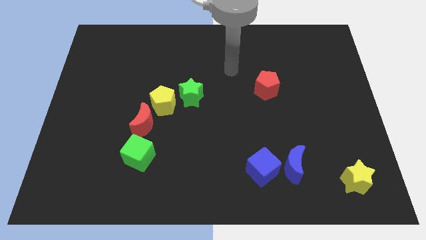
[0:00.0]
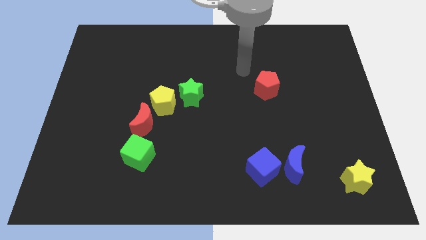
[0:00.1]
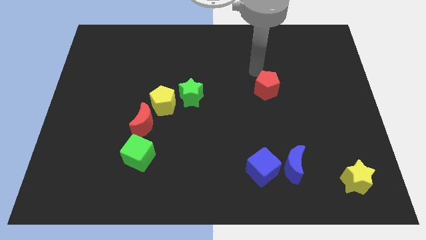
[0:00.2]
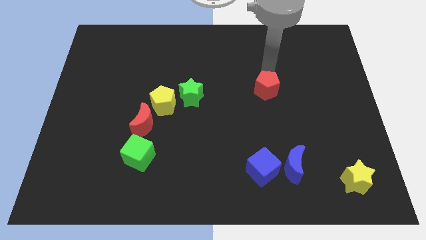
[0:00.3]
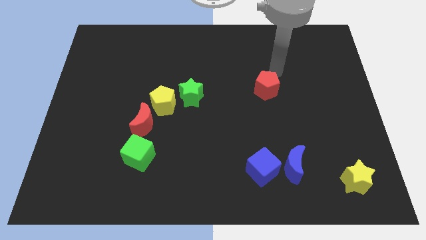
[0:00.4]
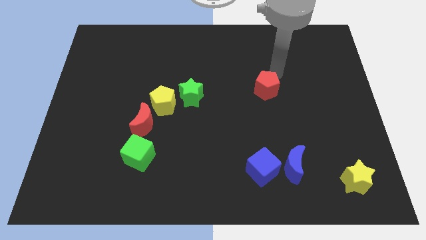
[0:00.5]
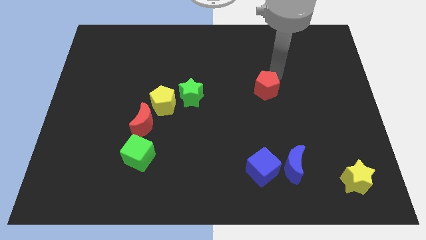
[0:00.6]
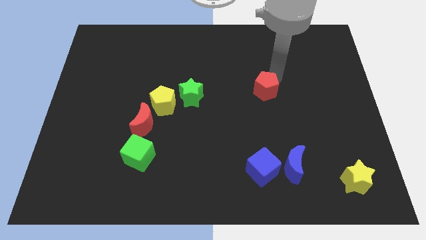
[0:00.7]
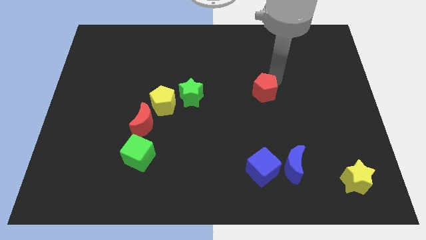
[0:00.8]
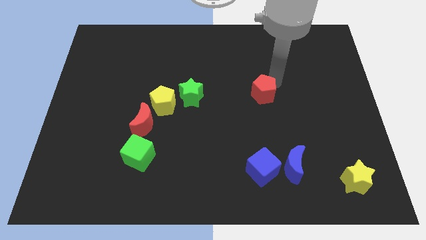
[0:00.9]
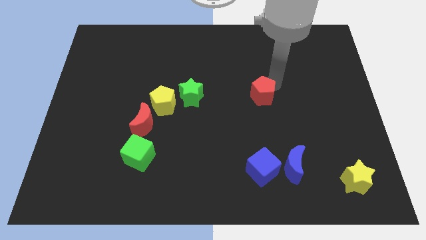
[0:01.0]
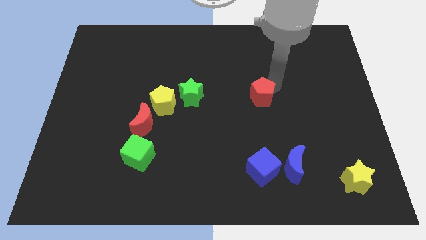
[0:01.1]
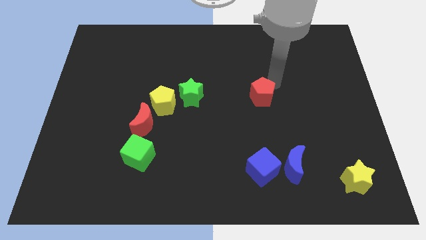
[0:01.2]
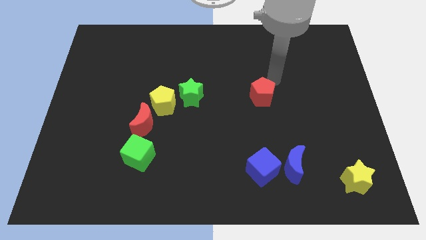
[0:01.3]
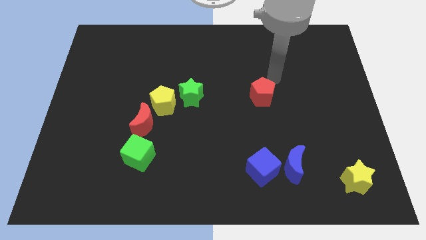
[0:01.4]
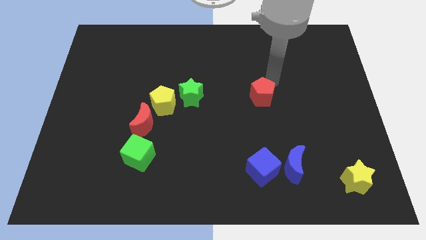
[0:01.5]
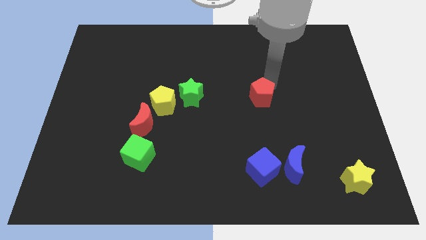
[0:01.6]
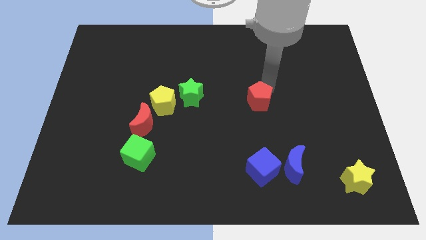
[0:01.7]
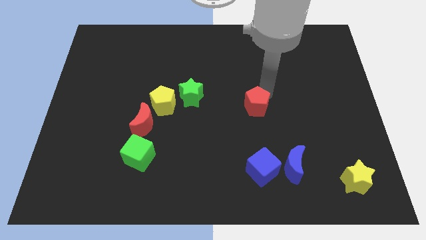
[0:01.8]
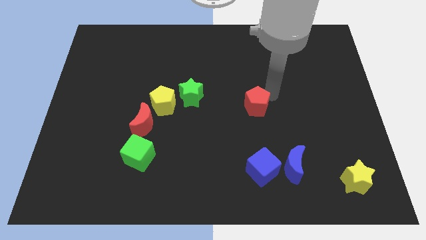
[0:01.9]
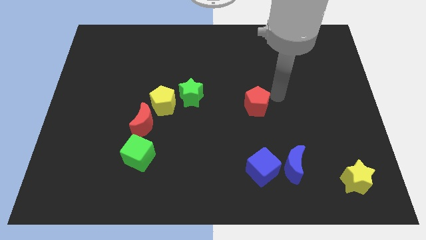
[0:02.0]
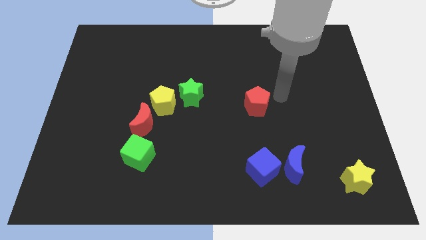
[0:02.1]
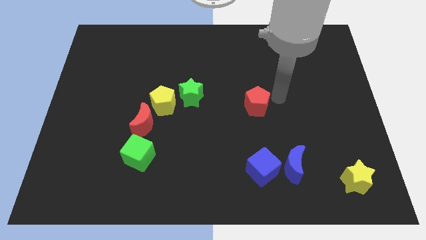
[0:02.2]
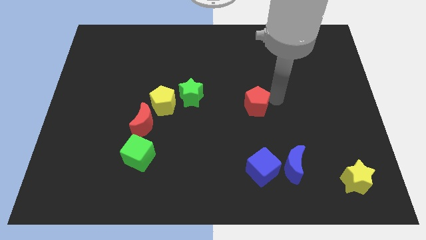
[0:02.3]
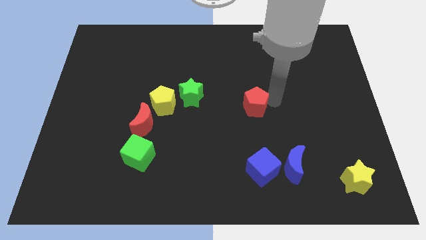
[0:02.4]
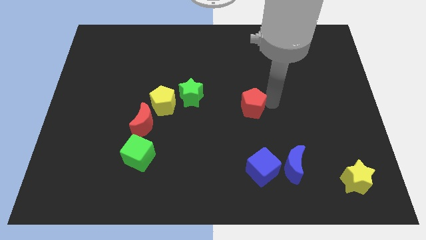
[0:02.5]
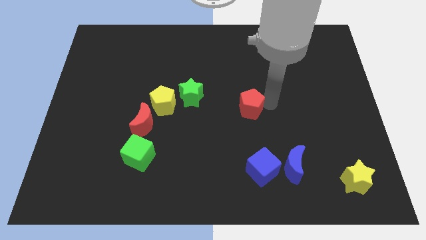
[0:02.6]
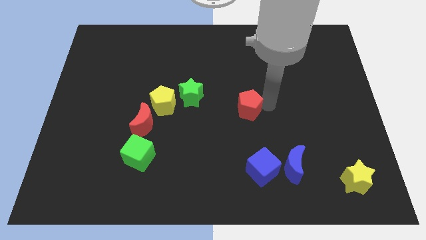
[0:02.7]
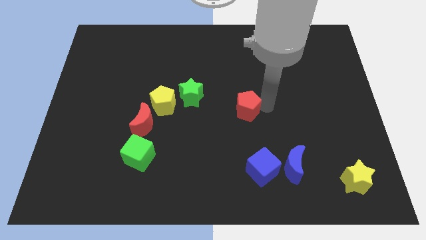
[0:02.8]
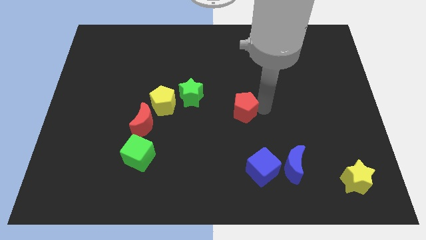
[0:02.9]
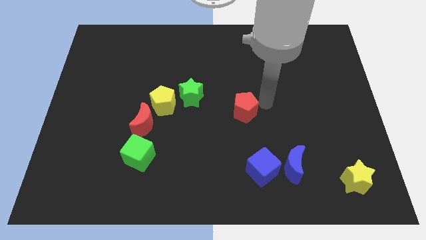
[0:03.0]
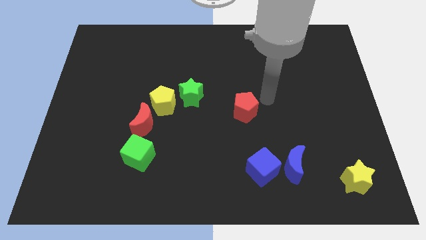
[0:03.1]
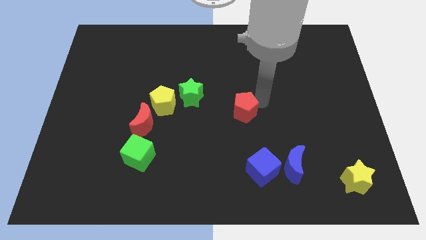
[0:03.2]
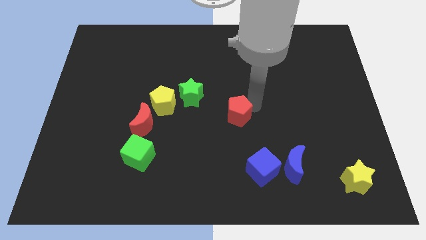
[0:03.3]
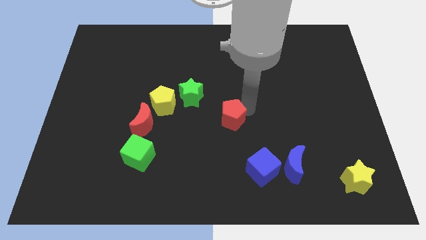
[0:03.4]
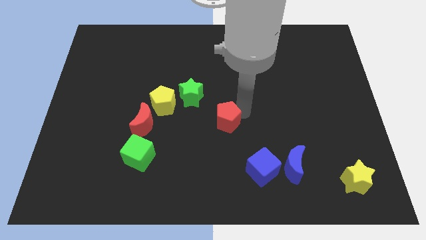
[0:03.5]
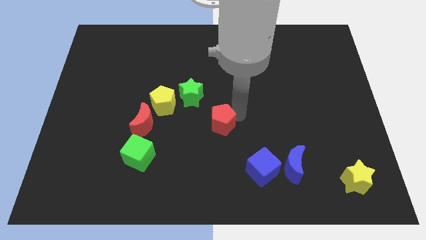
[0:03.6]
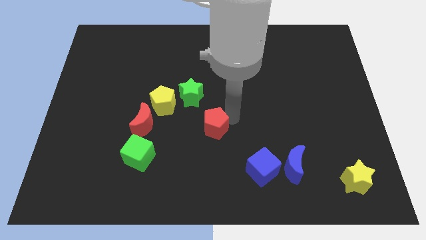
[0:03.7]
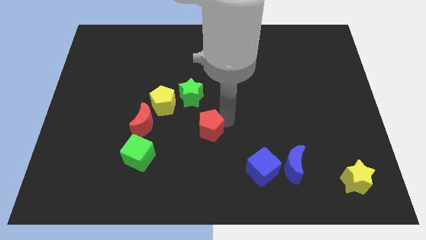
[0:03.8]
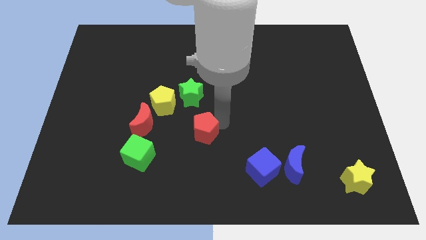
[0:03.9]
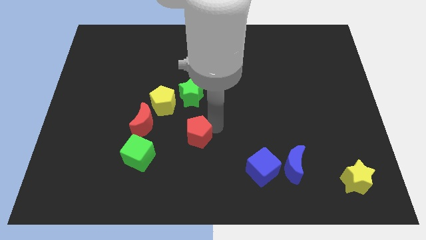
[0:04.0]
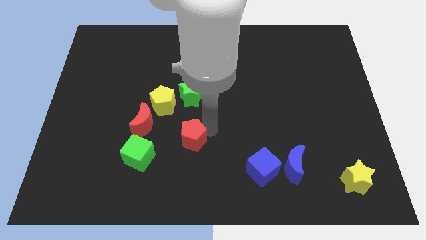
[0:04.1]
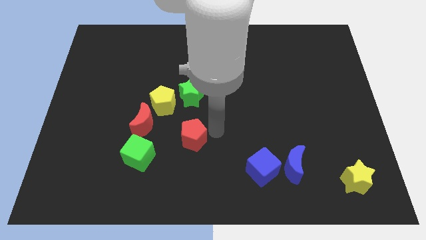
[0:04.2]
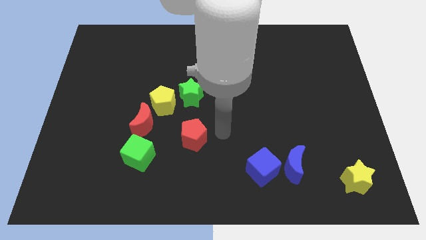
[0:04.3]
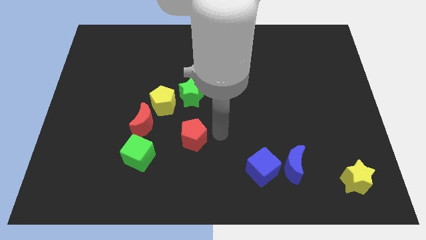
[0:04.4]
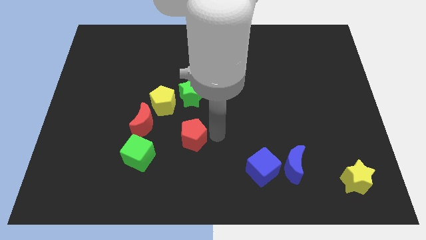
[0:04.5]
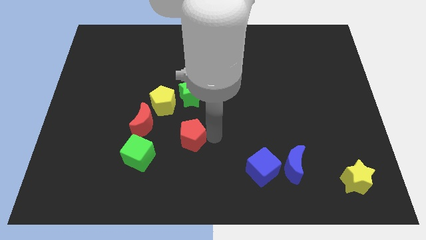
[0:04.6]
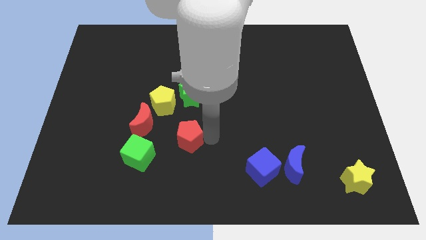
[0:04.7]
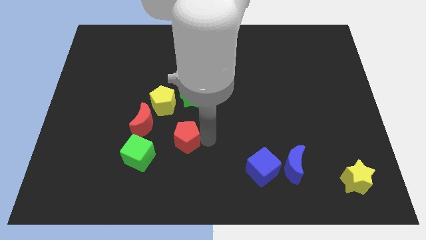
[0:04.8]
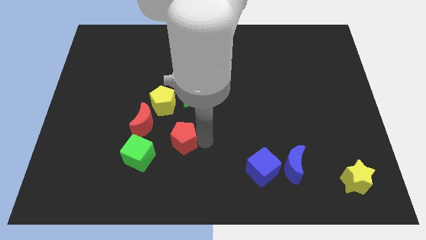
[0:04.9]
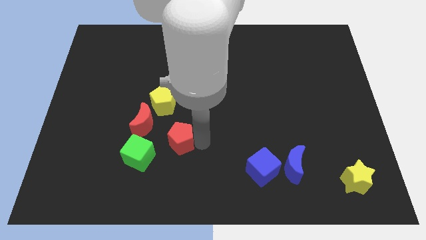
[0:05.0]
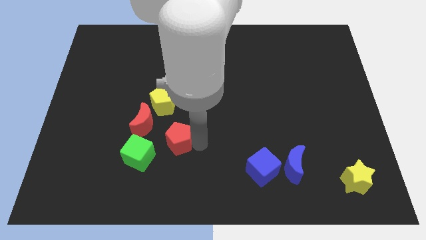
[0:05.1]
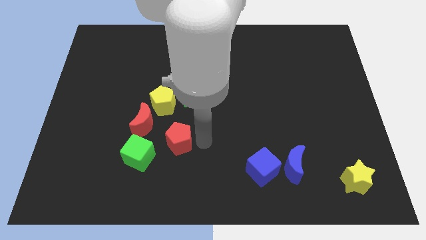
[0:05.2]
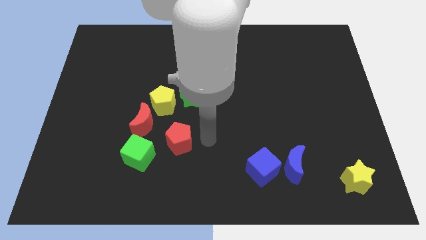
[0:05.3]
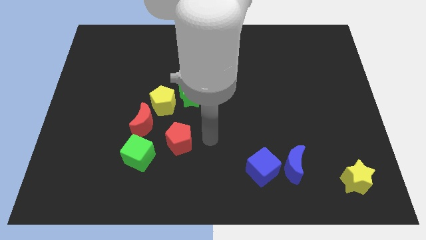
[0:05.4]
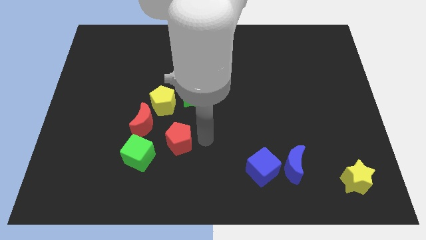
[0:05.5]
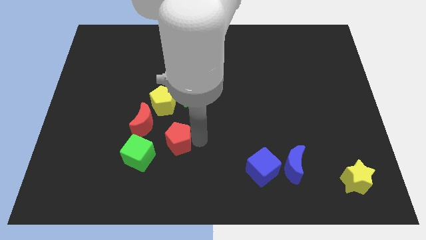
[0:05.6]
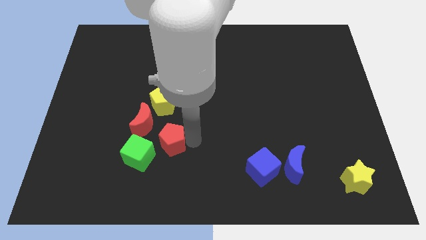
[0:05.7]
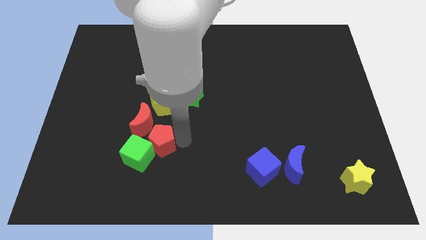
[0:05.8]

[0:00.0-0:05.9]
move the red pentagon next to the green cube

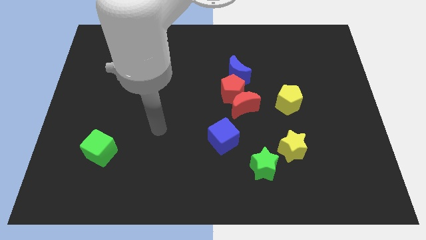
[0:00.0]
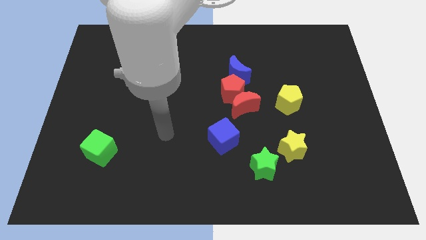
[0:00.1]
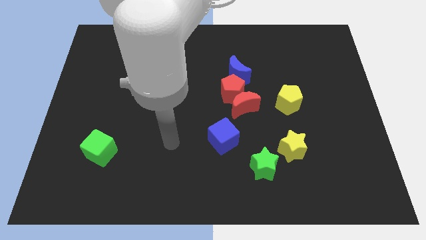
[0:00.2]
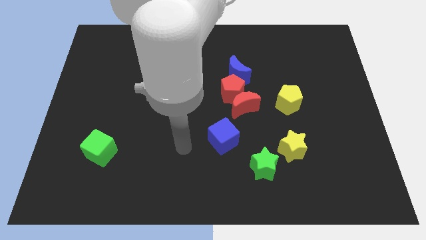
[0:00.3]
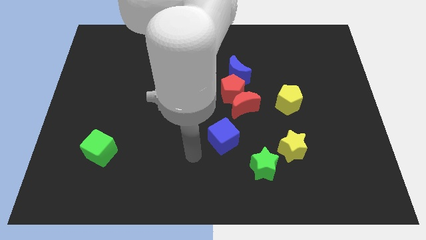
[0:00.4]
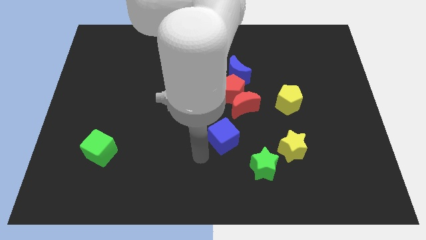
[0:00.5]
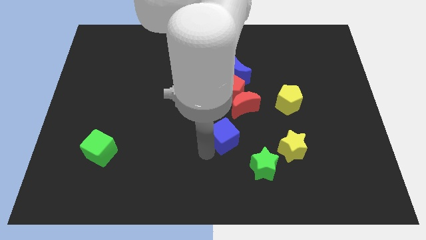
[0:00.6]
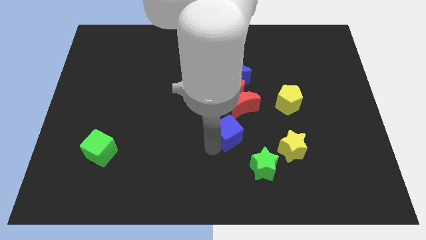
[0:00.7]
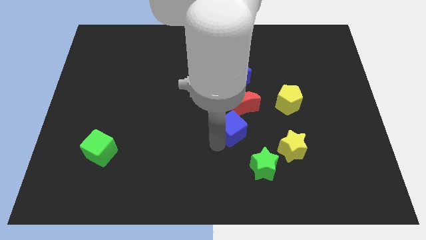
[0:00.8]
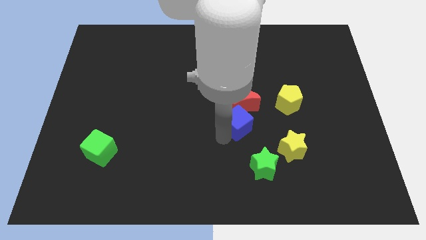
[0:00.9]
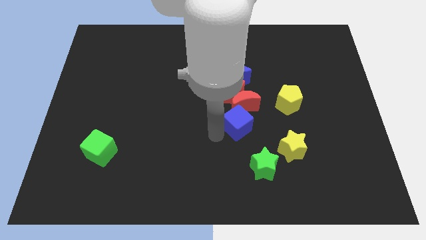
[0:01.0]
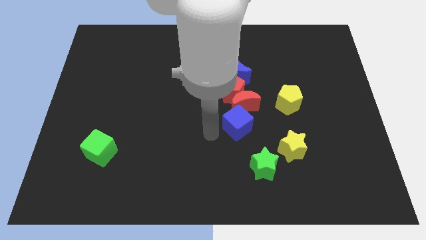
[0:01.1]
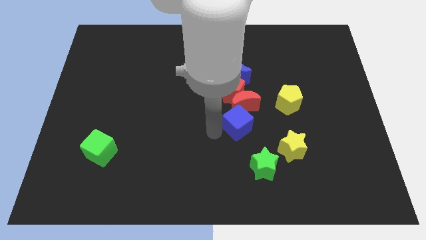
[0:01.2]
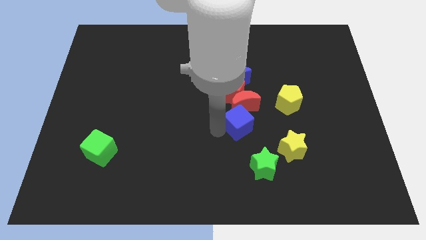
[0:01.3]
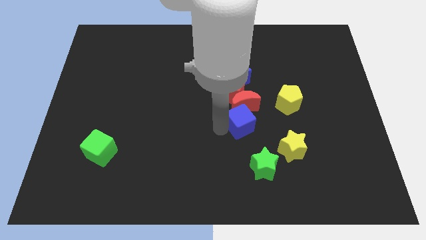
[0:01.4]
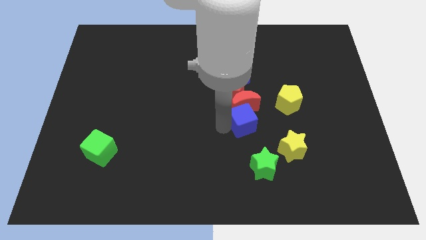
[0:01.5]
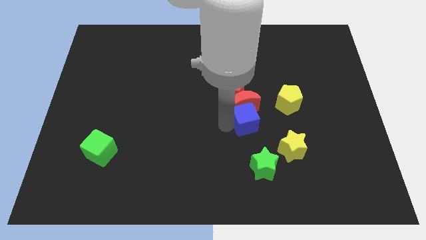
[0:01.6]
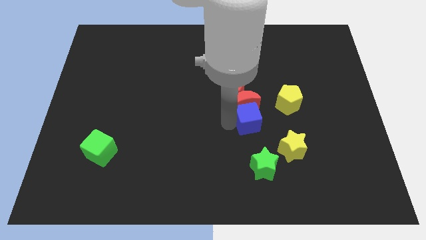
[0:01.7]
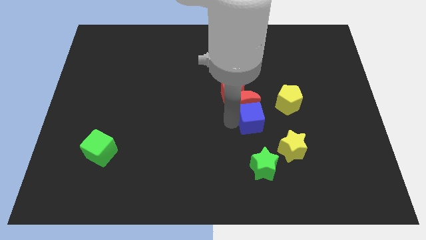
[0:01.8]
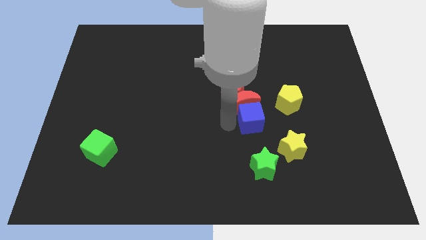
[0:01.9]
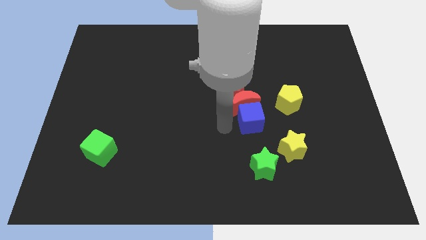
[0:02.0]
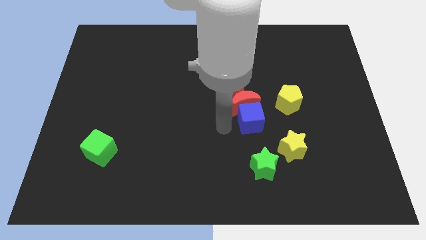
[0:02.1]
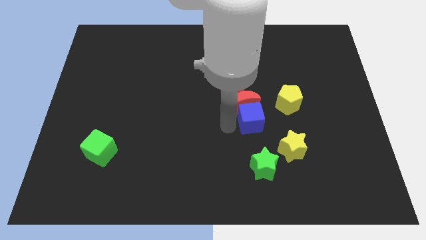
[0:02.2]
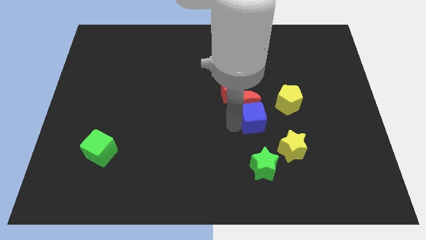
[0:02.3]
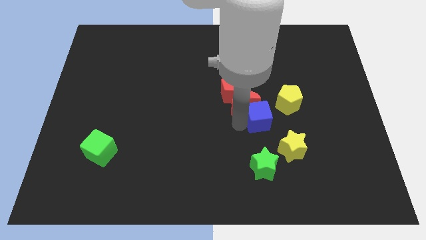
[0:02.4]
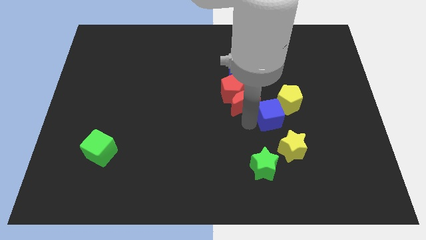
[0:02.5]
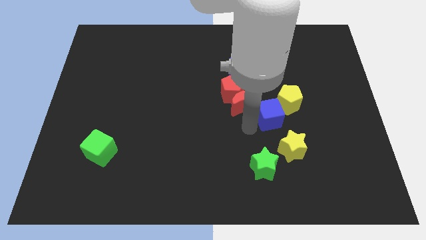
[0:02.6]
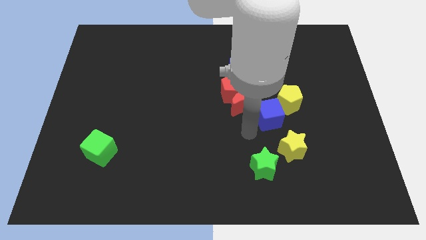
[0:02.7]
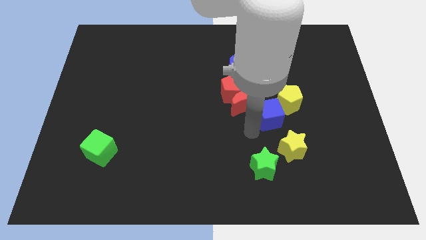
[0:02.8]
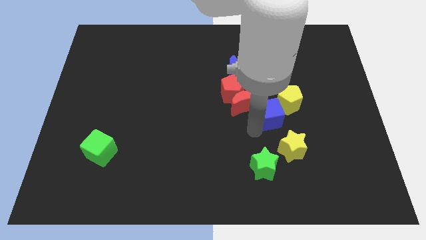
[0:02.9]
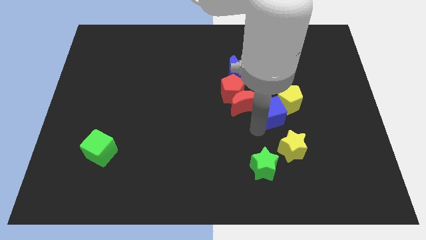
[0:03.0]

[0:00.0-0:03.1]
move the blue cube close to the yellow pentagon
